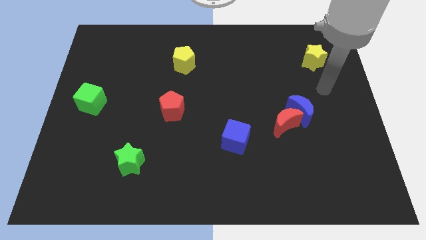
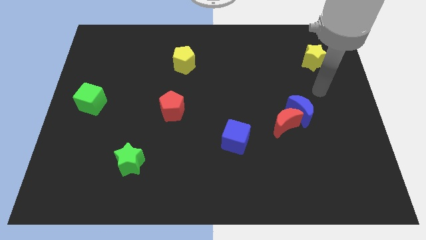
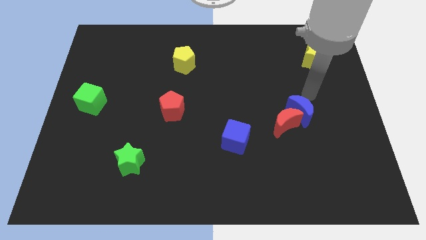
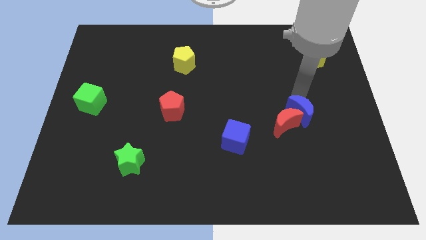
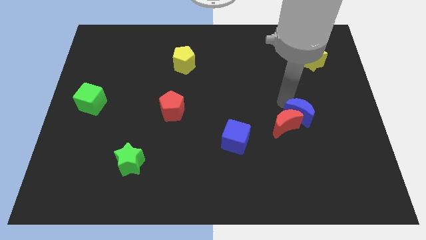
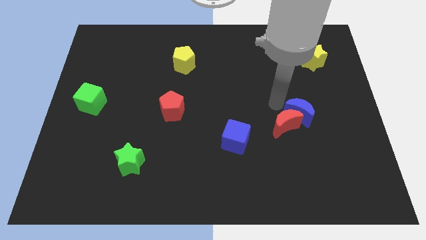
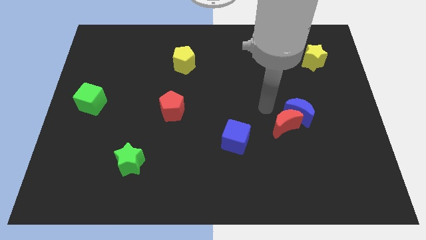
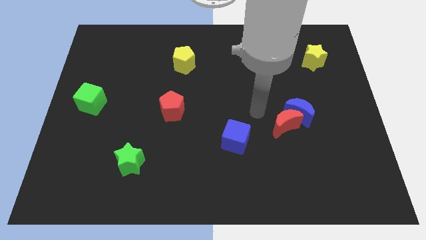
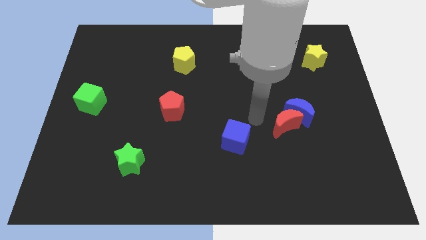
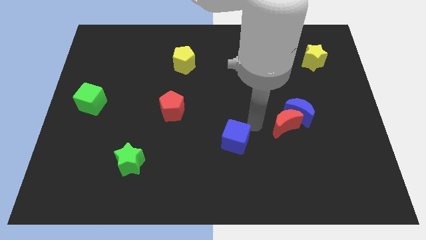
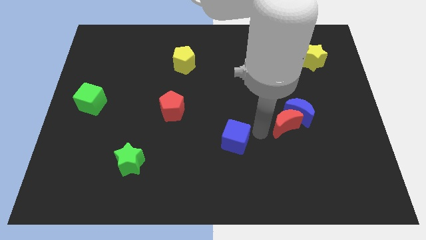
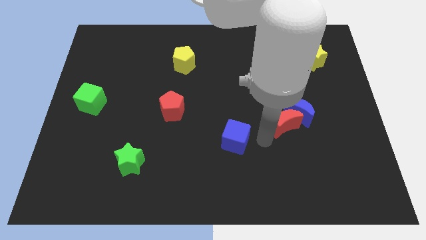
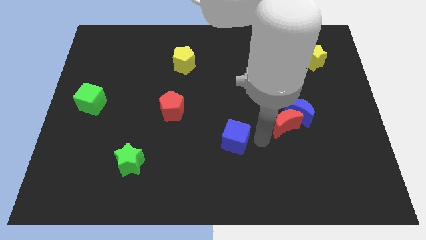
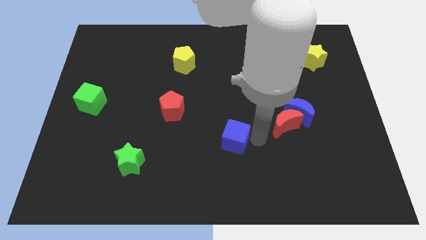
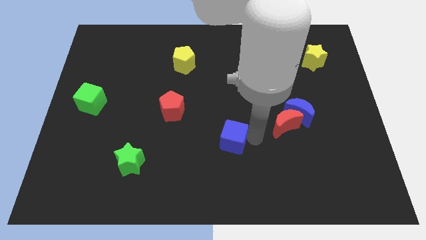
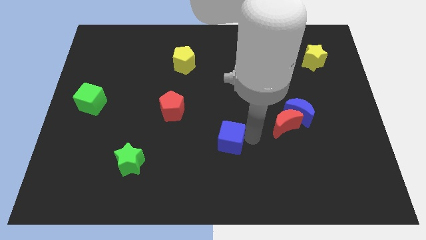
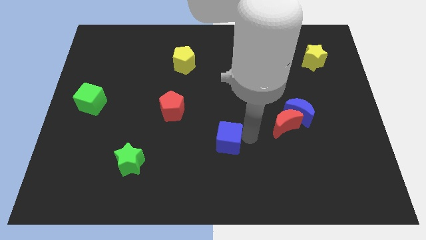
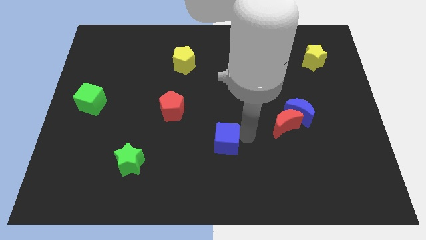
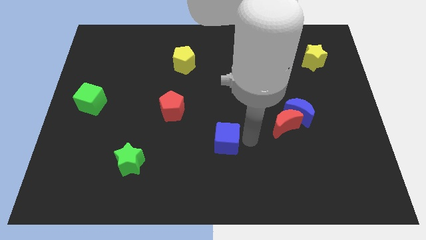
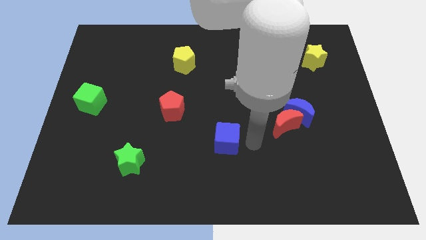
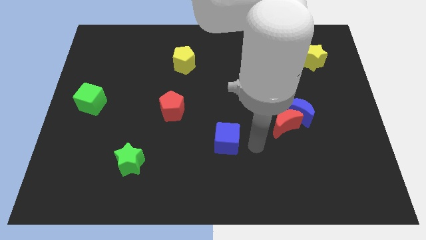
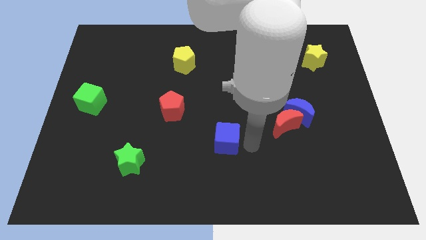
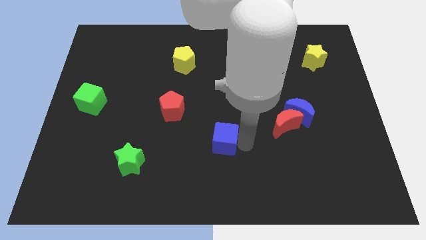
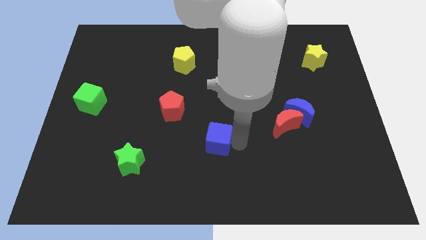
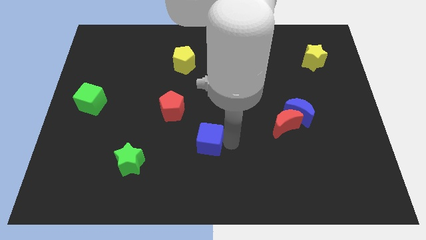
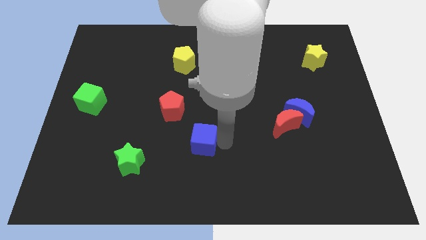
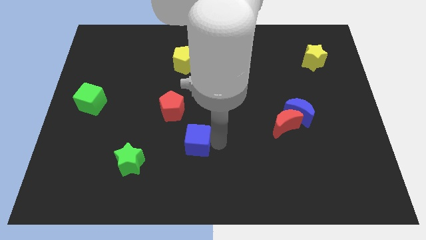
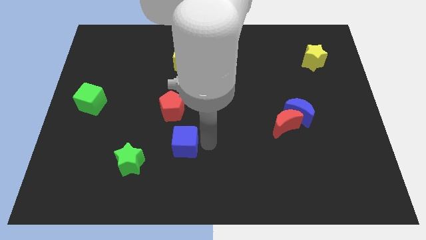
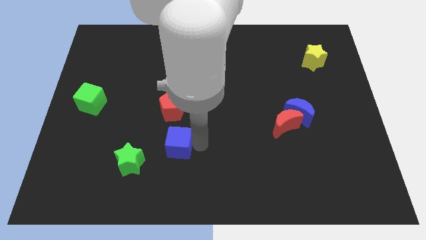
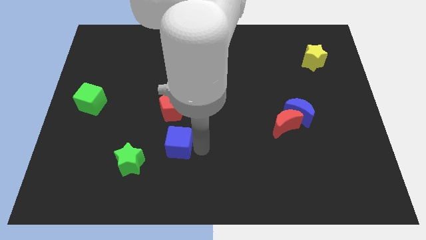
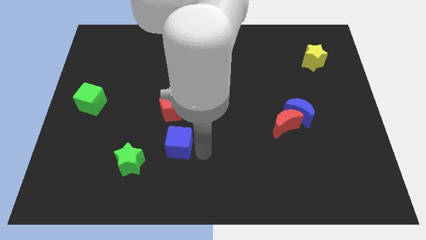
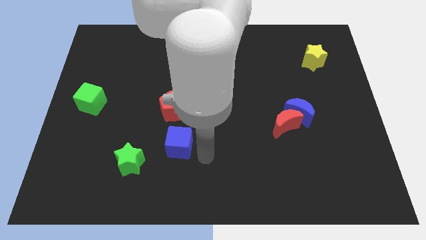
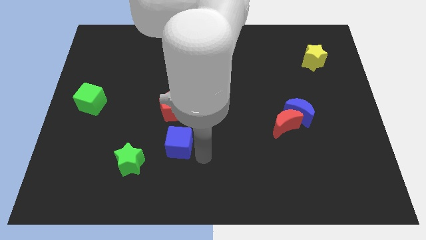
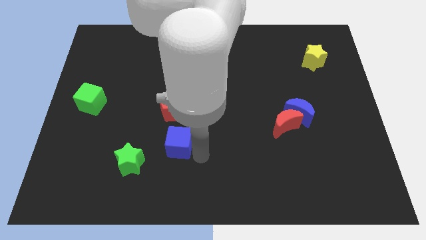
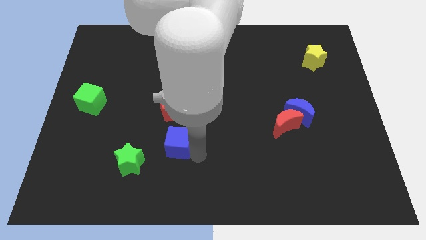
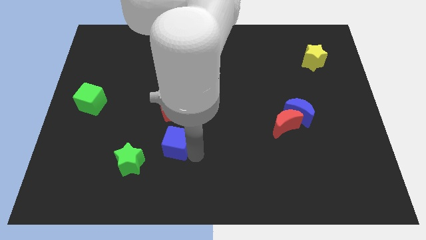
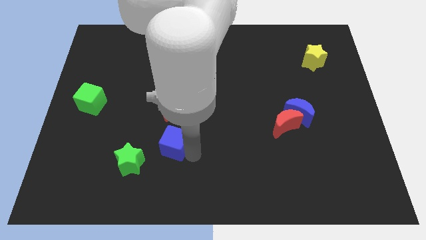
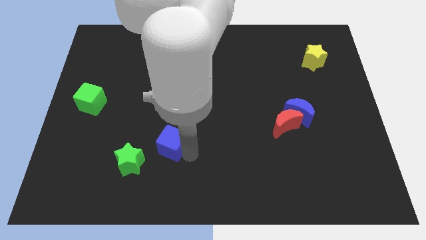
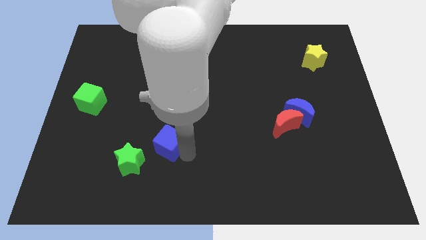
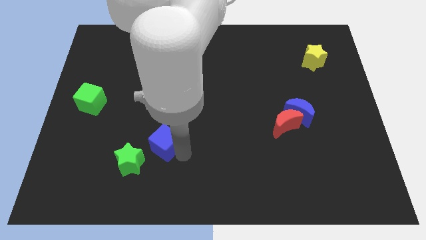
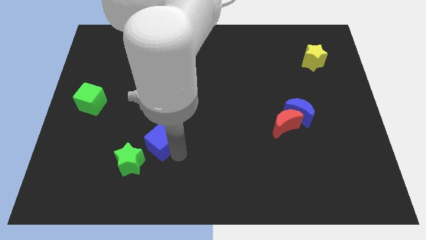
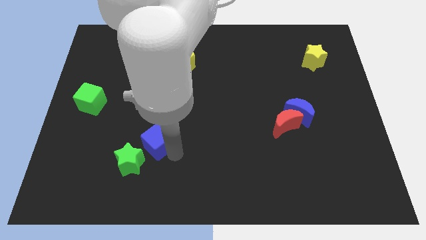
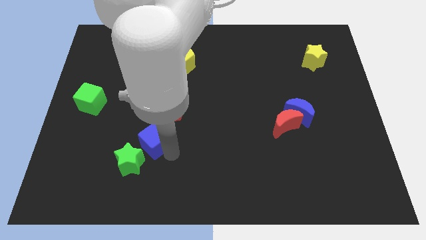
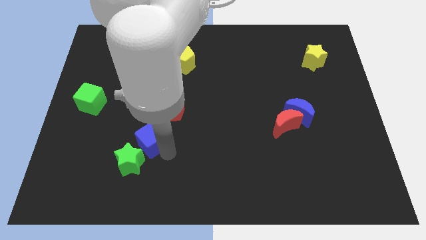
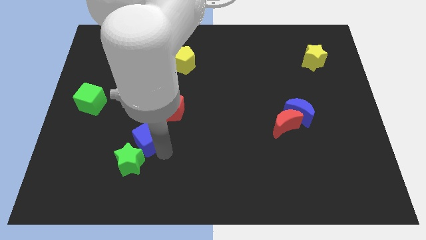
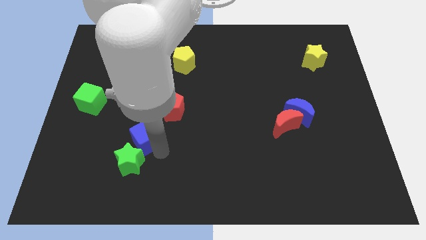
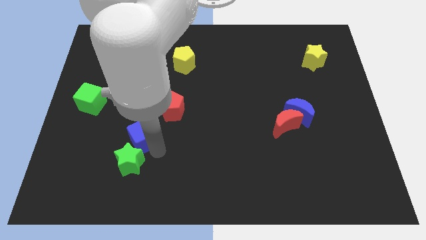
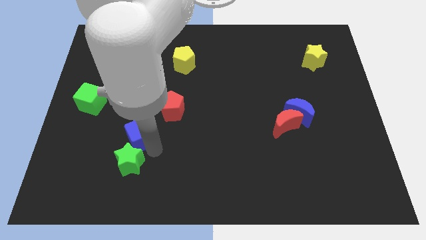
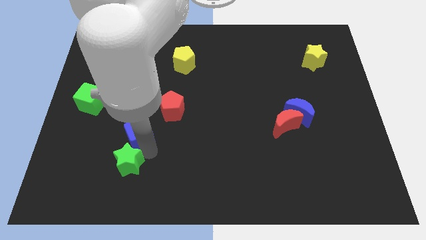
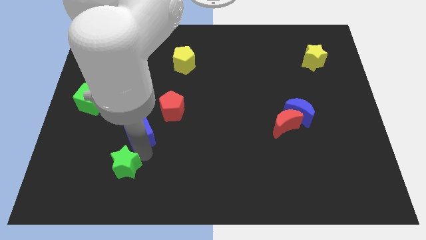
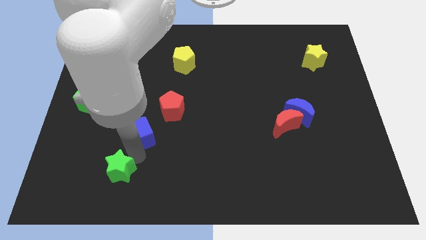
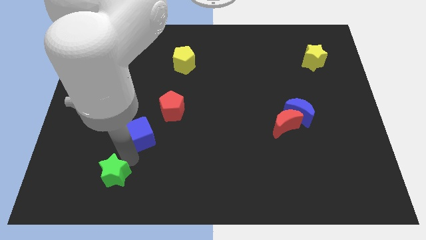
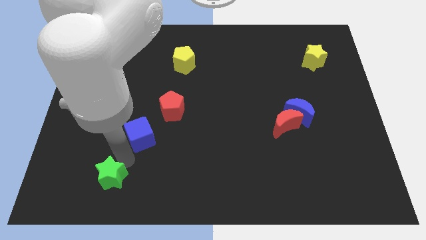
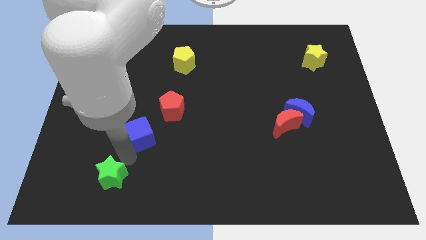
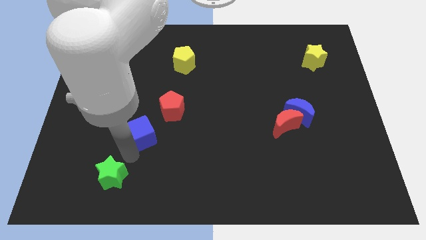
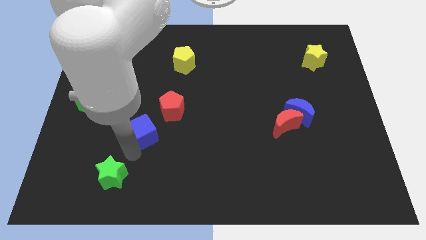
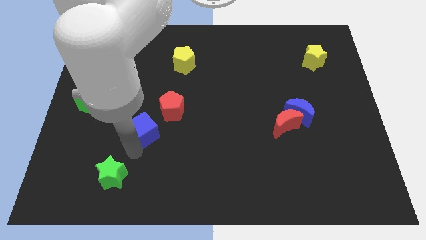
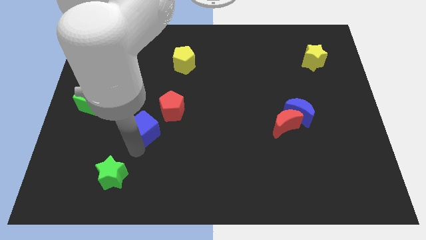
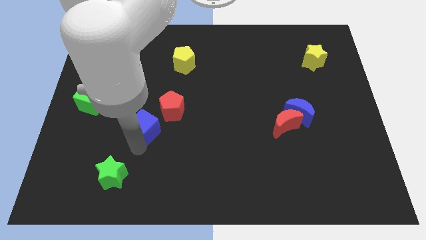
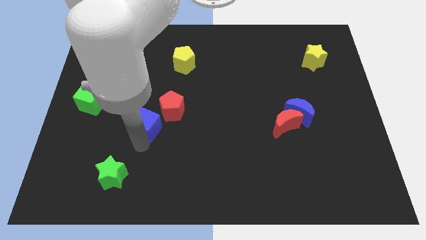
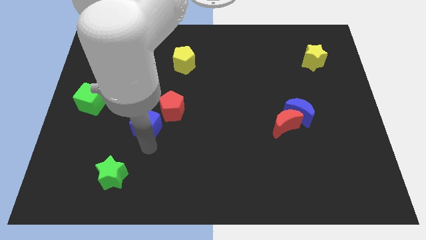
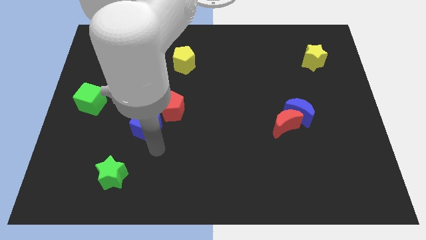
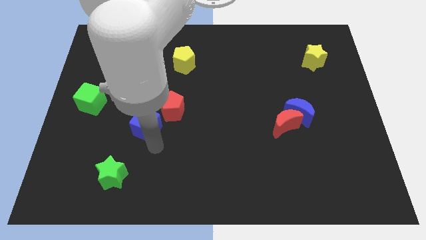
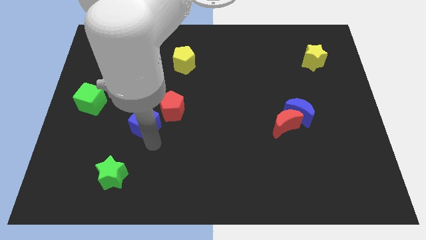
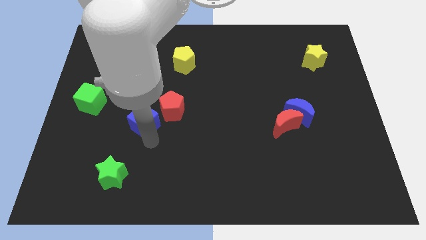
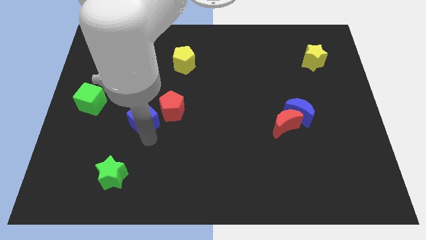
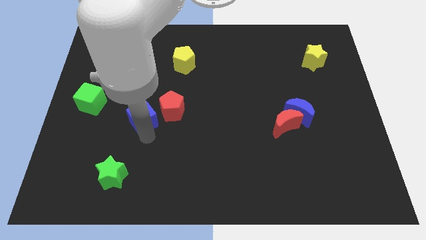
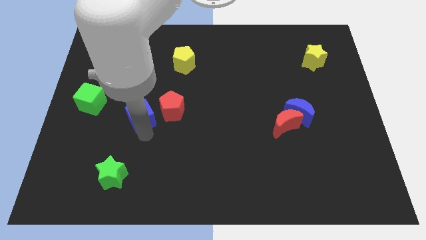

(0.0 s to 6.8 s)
push the blue cube right of the green cube

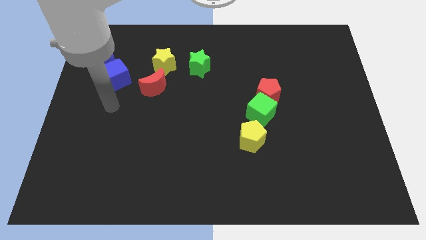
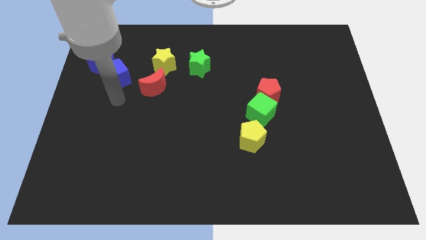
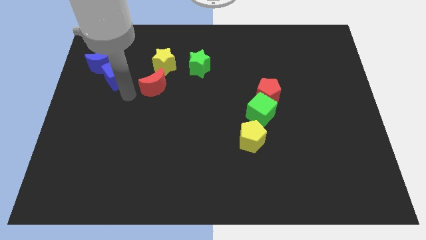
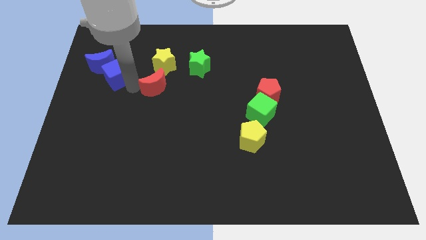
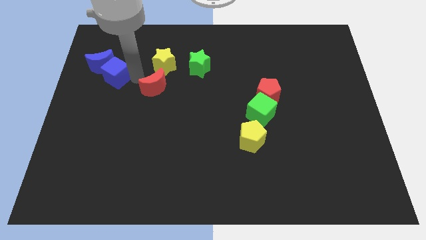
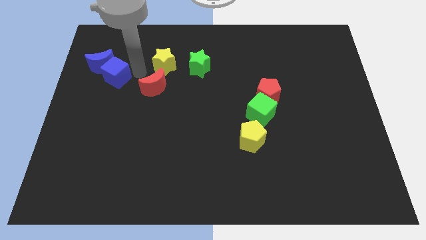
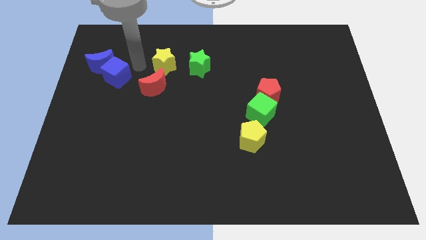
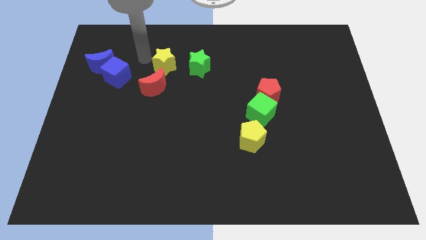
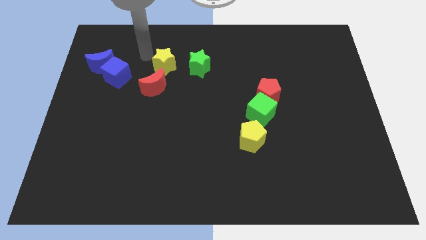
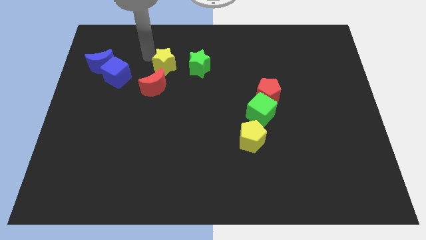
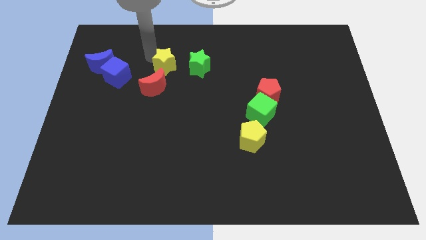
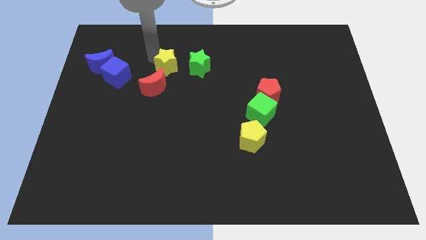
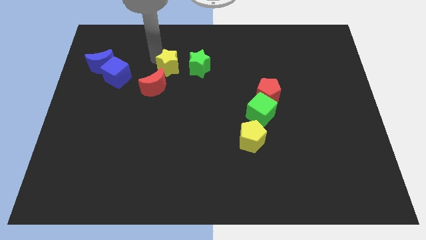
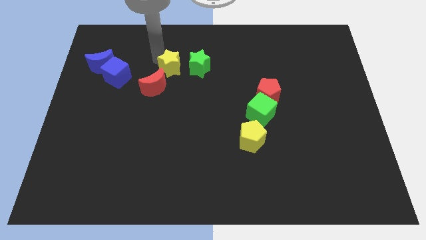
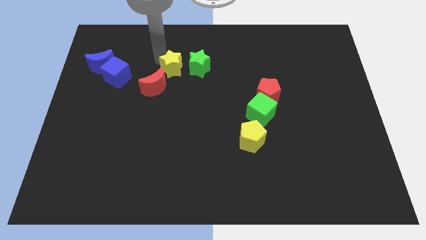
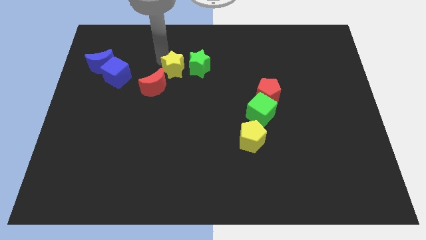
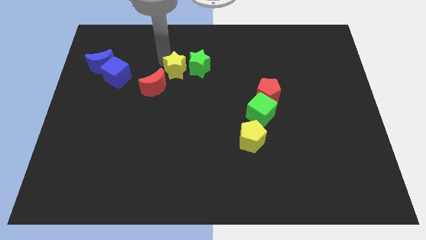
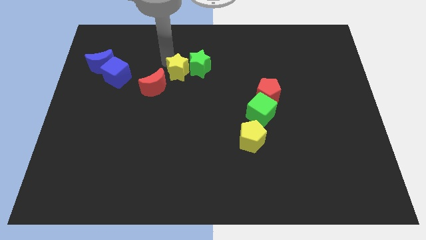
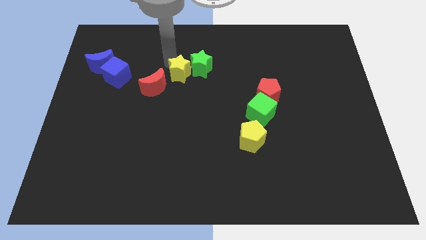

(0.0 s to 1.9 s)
slide the yellow star just right of the red moon
